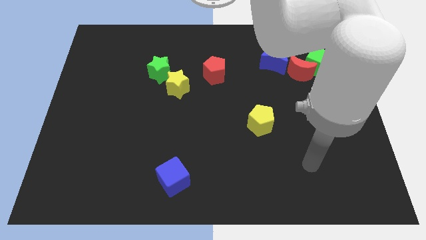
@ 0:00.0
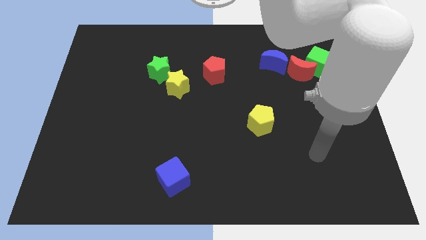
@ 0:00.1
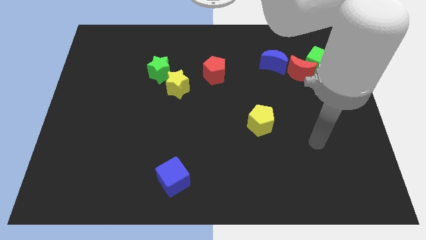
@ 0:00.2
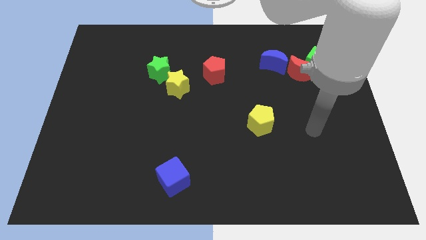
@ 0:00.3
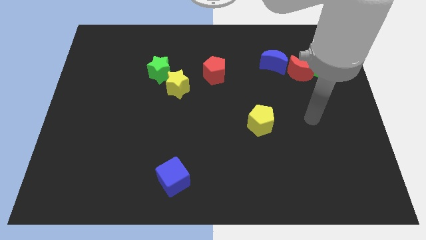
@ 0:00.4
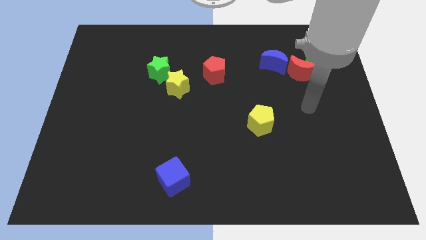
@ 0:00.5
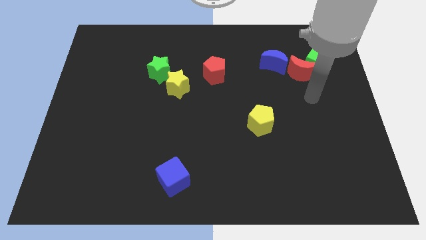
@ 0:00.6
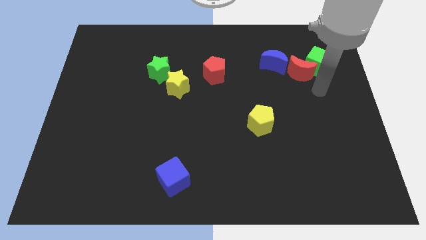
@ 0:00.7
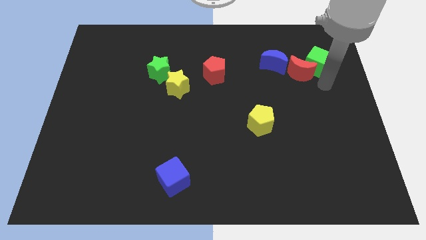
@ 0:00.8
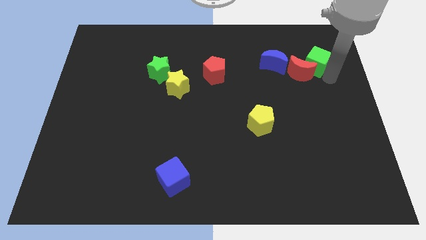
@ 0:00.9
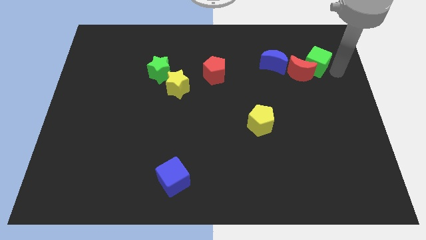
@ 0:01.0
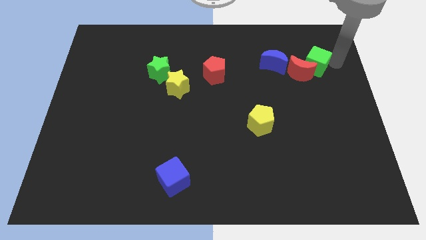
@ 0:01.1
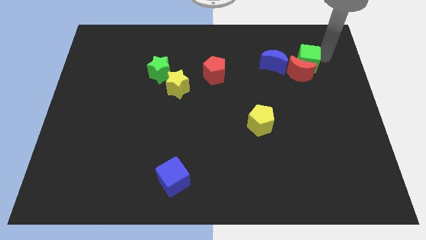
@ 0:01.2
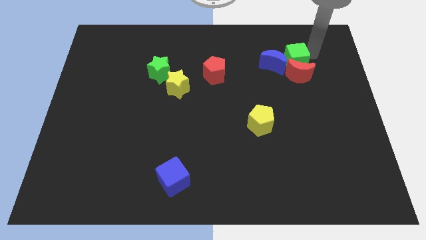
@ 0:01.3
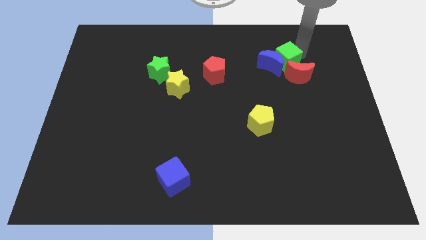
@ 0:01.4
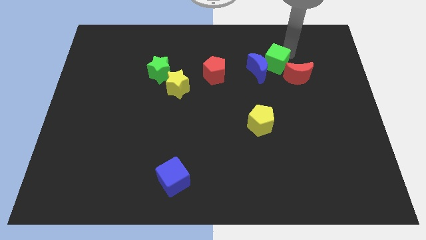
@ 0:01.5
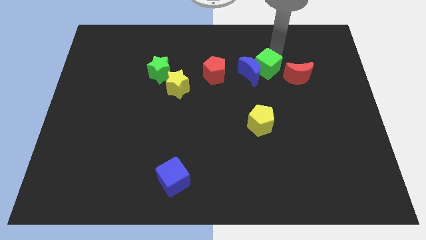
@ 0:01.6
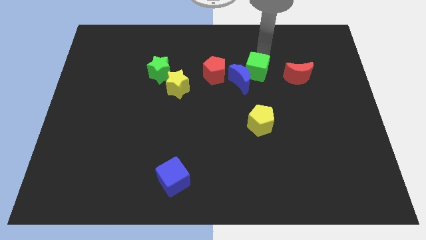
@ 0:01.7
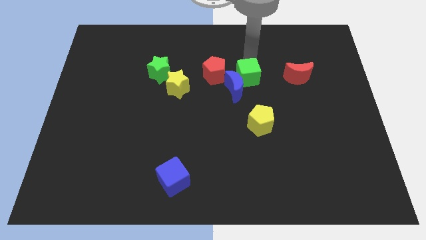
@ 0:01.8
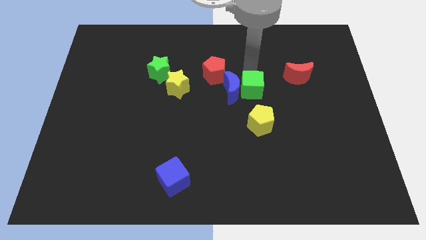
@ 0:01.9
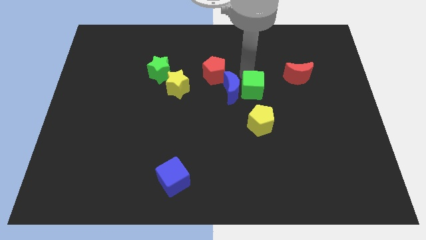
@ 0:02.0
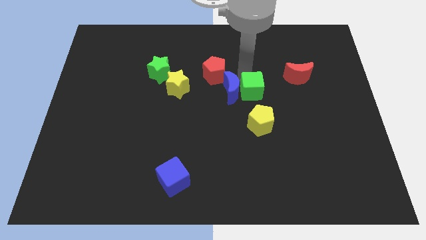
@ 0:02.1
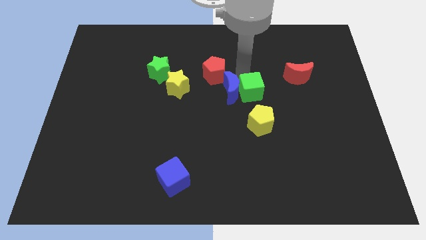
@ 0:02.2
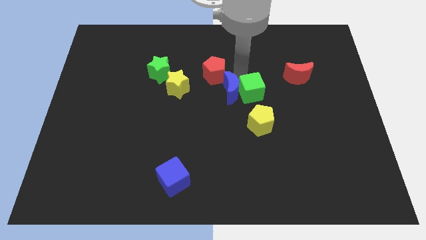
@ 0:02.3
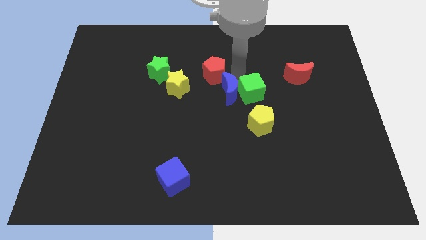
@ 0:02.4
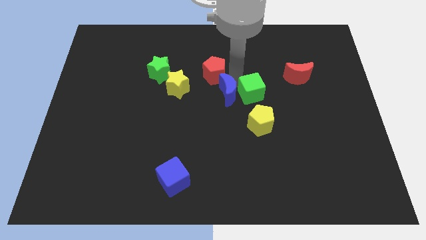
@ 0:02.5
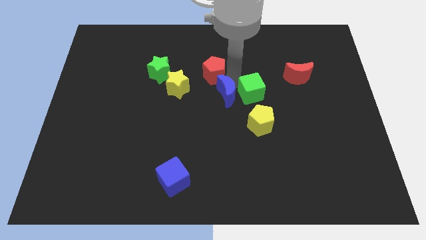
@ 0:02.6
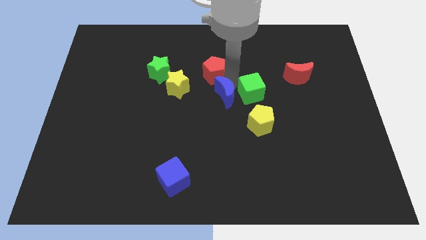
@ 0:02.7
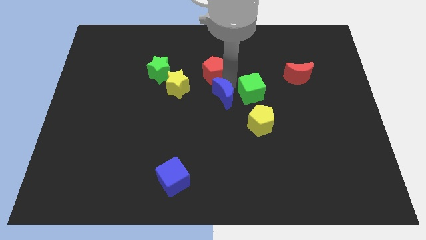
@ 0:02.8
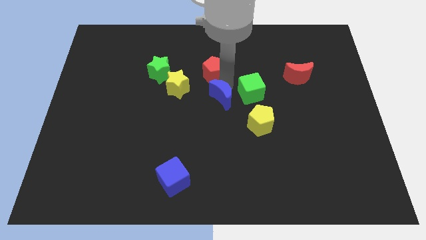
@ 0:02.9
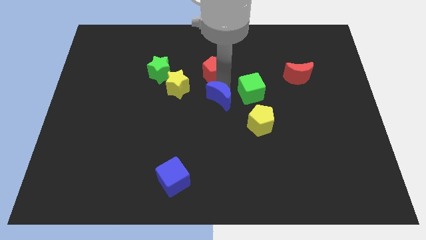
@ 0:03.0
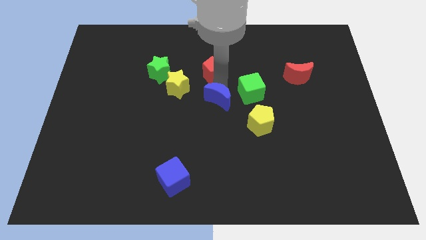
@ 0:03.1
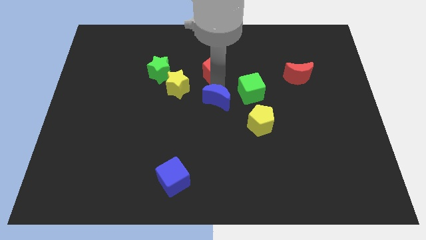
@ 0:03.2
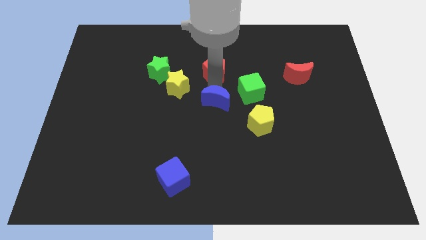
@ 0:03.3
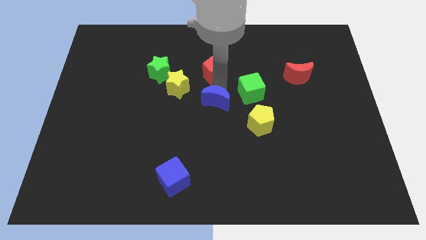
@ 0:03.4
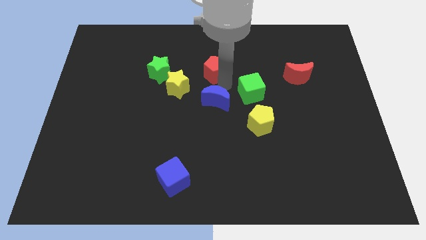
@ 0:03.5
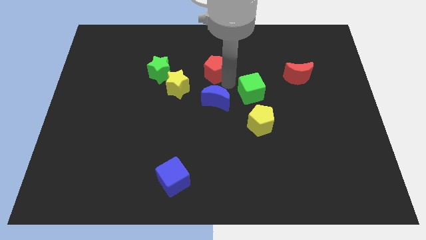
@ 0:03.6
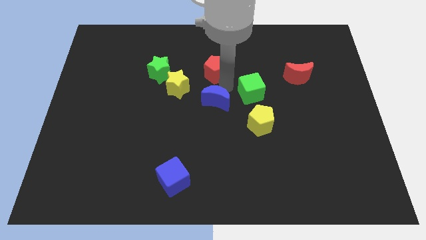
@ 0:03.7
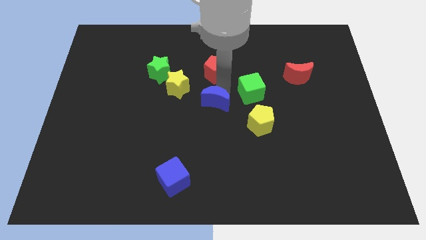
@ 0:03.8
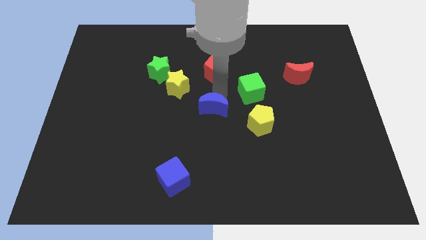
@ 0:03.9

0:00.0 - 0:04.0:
slide the blue moon down and left diagonally

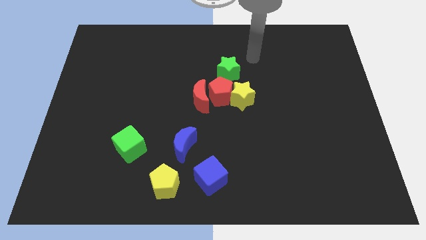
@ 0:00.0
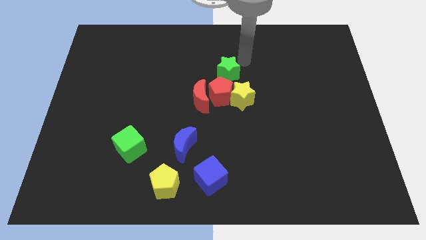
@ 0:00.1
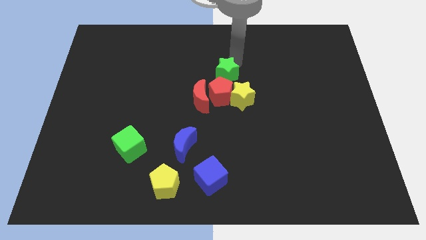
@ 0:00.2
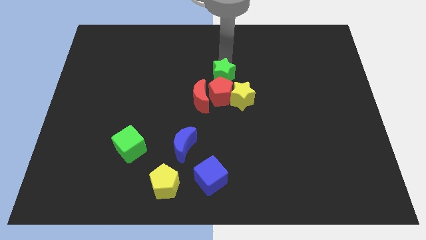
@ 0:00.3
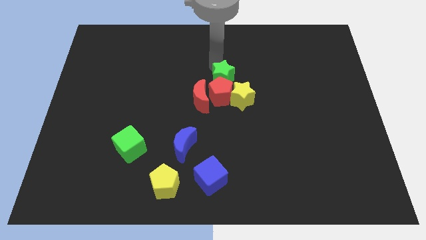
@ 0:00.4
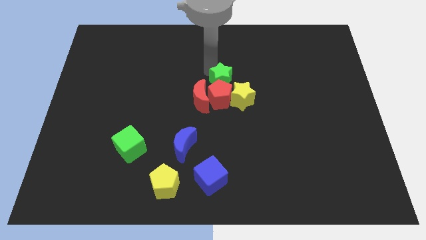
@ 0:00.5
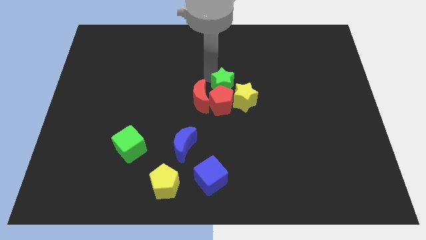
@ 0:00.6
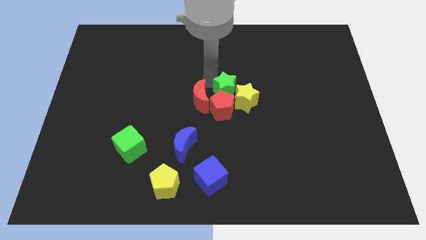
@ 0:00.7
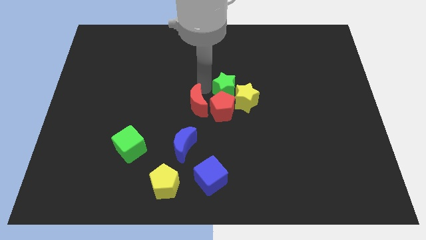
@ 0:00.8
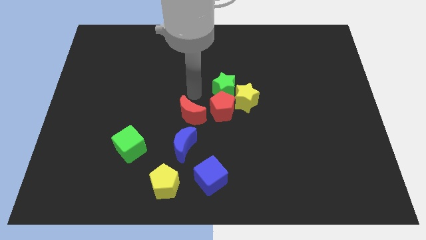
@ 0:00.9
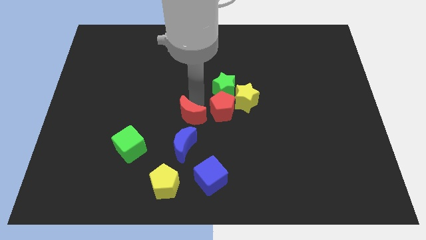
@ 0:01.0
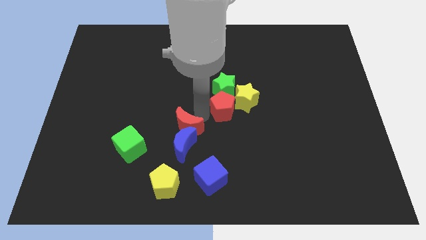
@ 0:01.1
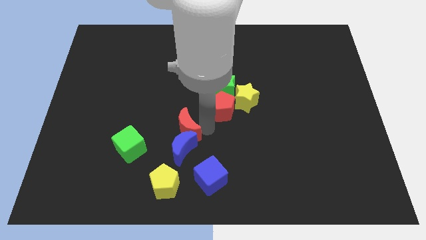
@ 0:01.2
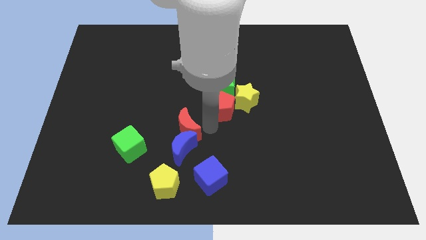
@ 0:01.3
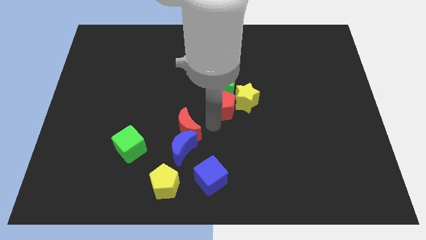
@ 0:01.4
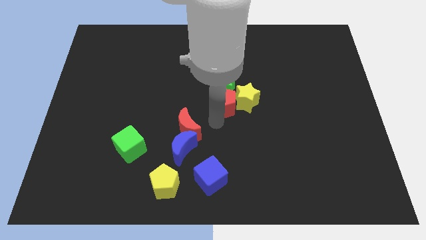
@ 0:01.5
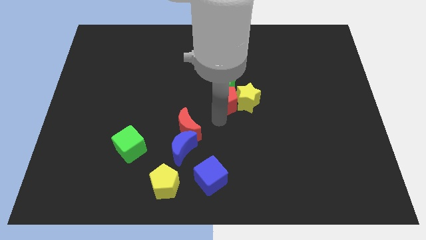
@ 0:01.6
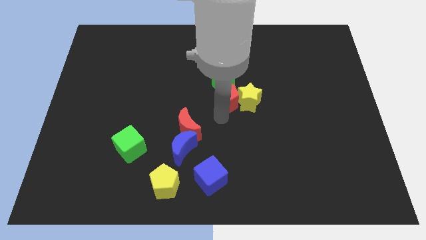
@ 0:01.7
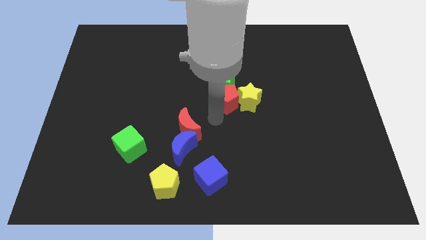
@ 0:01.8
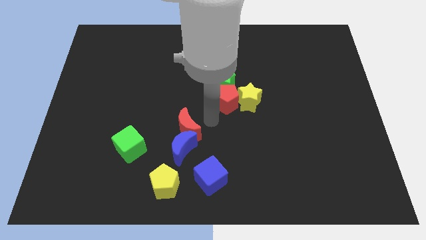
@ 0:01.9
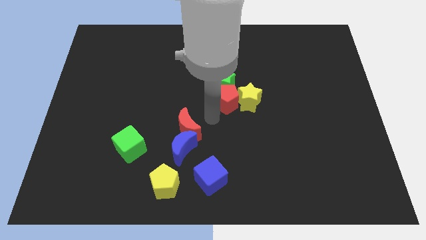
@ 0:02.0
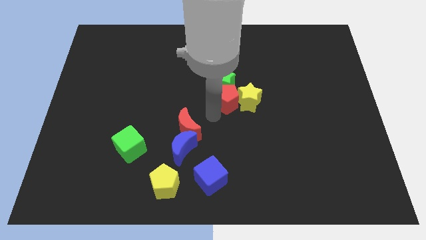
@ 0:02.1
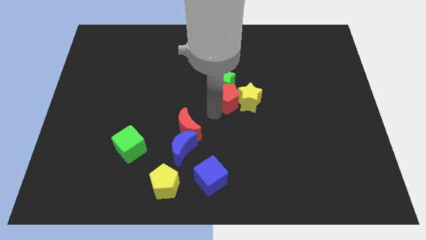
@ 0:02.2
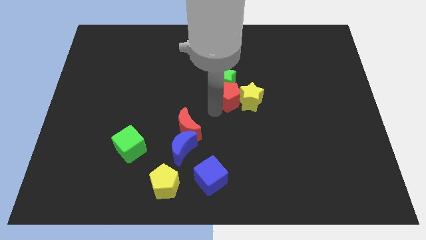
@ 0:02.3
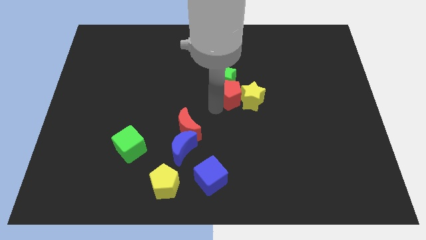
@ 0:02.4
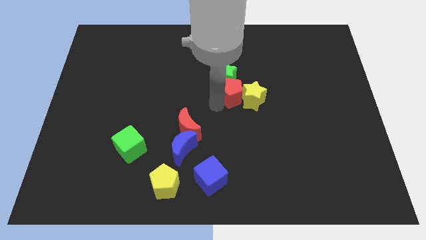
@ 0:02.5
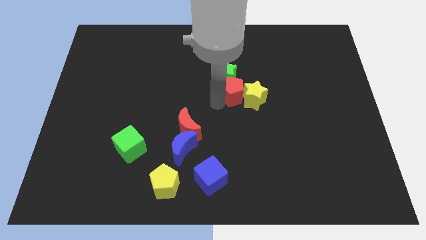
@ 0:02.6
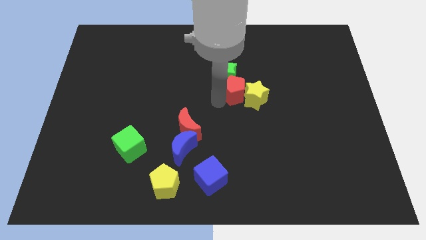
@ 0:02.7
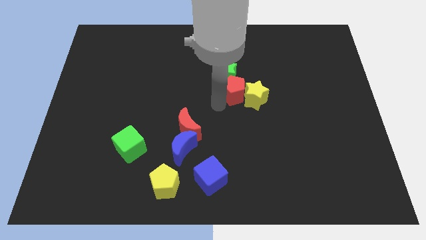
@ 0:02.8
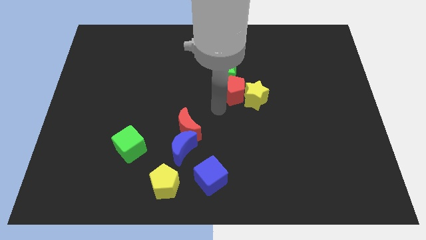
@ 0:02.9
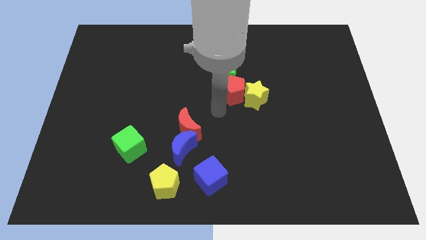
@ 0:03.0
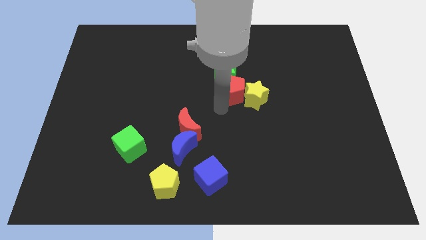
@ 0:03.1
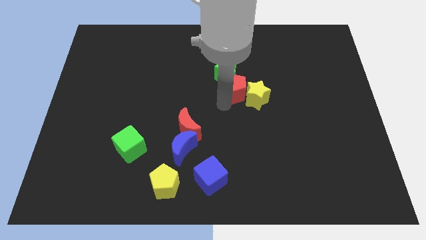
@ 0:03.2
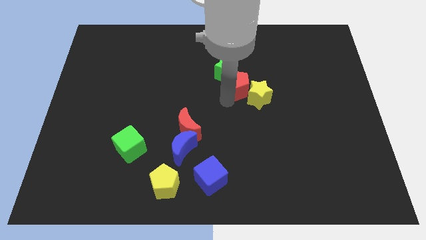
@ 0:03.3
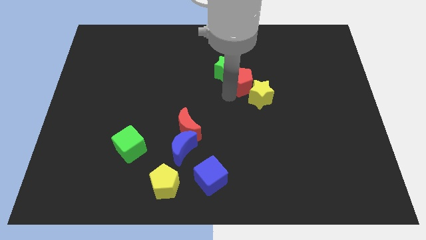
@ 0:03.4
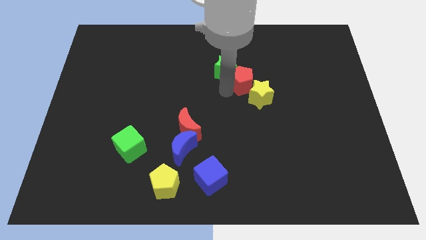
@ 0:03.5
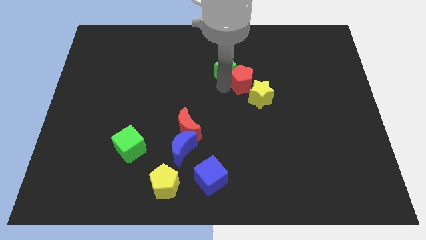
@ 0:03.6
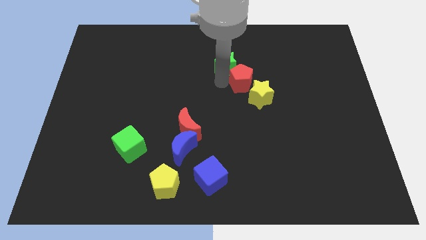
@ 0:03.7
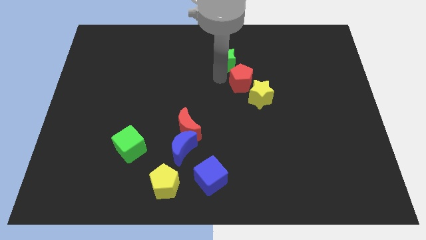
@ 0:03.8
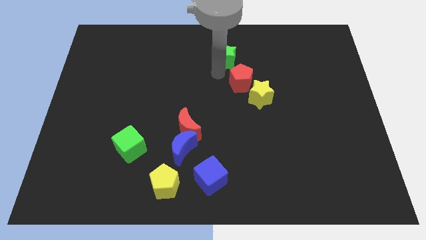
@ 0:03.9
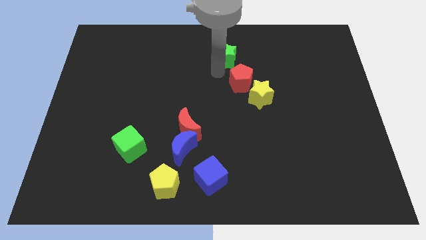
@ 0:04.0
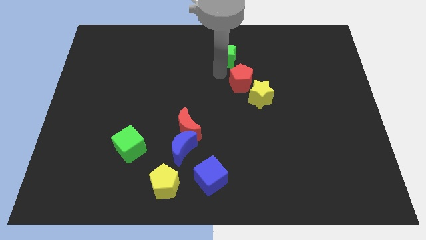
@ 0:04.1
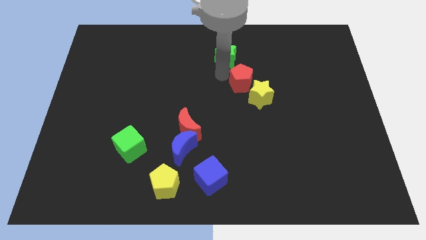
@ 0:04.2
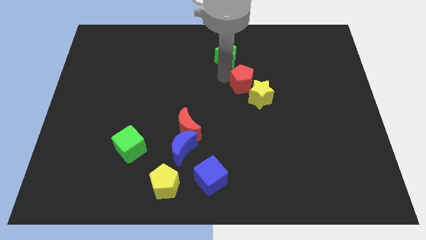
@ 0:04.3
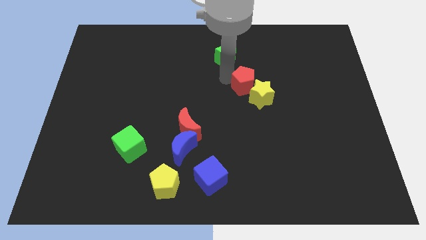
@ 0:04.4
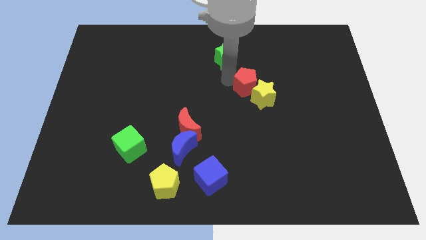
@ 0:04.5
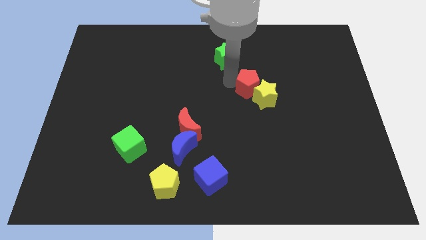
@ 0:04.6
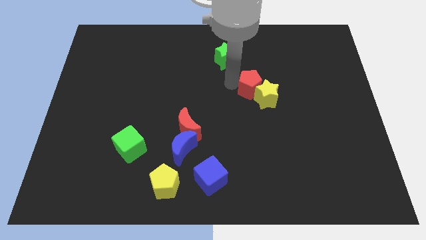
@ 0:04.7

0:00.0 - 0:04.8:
push the red pentagon somewhat to the right
